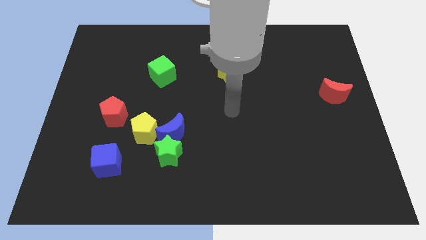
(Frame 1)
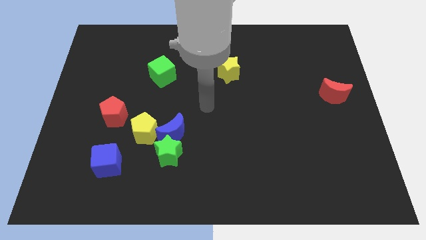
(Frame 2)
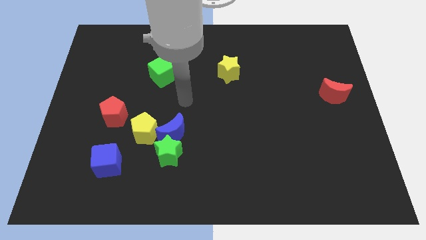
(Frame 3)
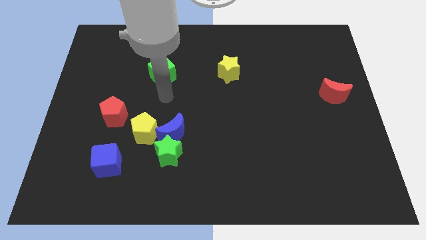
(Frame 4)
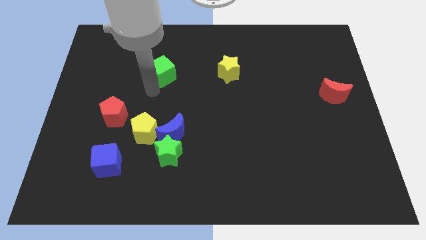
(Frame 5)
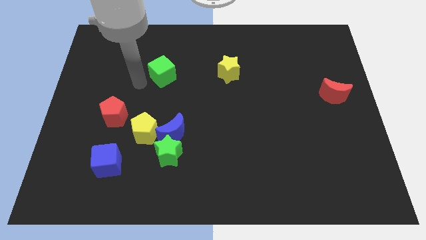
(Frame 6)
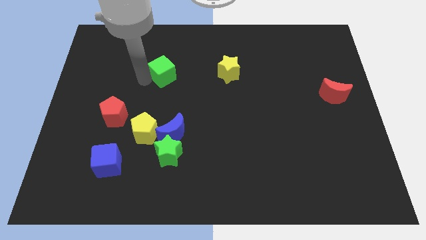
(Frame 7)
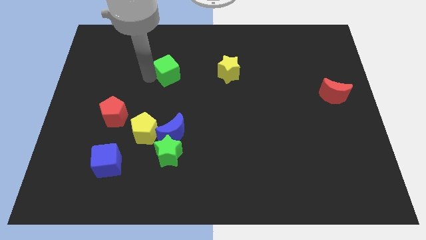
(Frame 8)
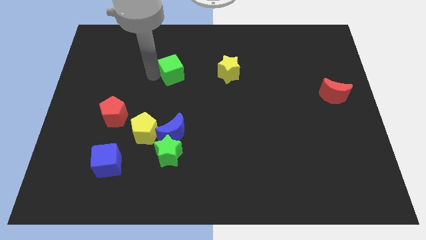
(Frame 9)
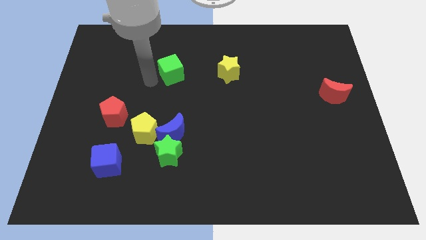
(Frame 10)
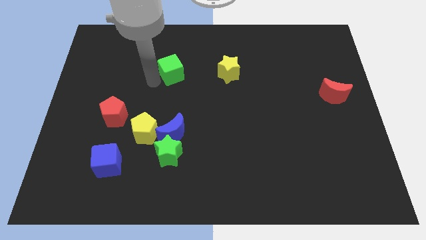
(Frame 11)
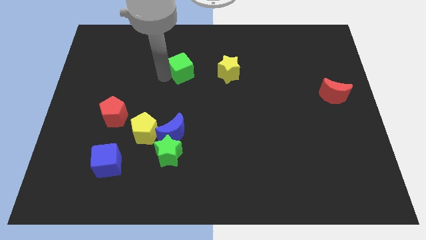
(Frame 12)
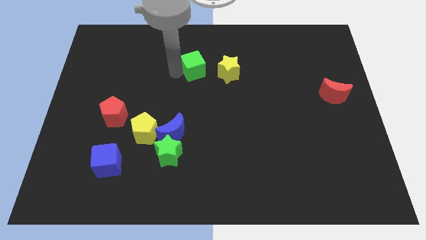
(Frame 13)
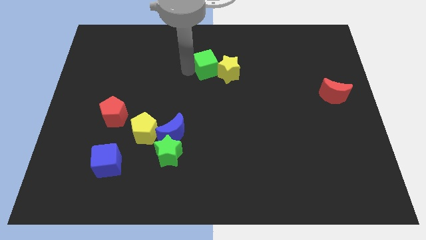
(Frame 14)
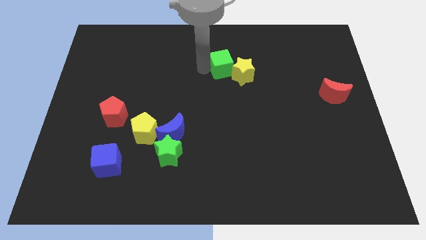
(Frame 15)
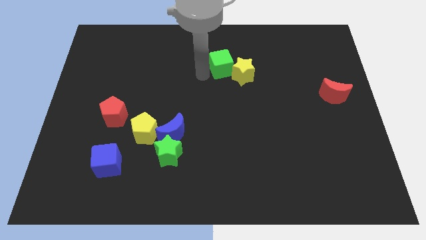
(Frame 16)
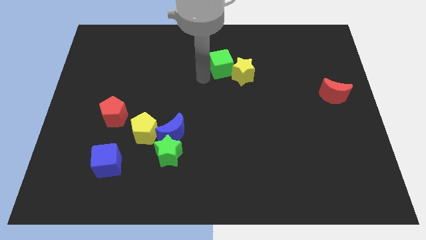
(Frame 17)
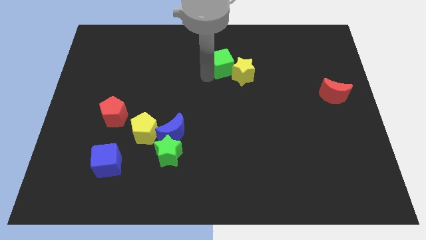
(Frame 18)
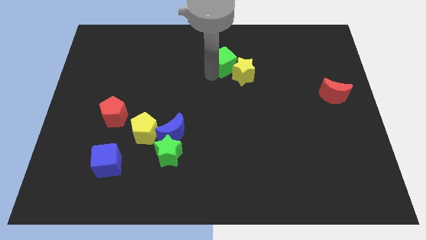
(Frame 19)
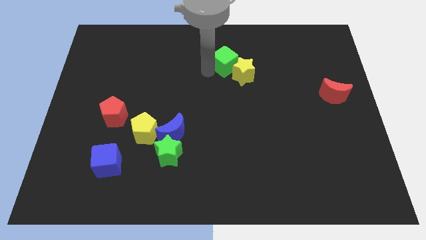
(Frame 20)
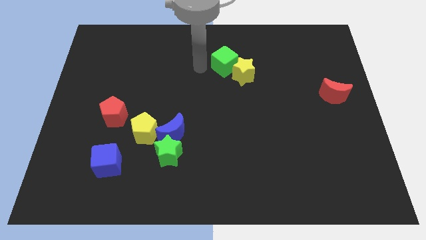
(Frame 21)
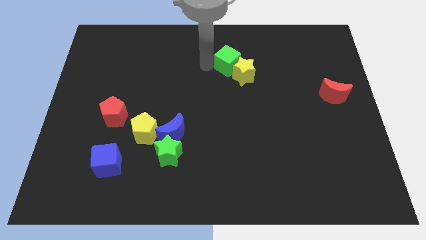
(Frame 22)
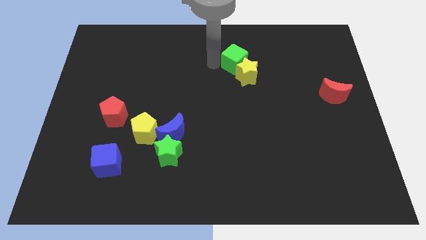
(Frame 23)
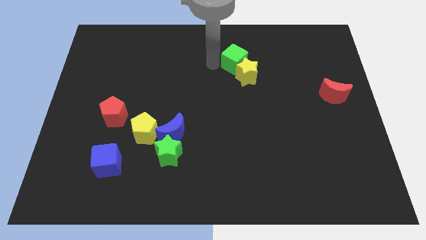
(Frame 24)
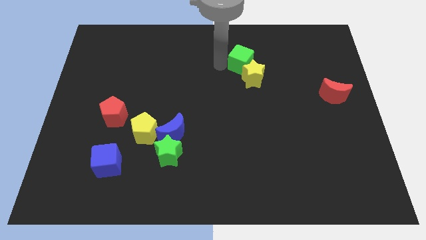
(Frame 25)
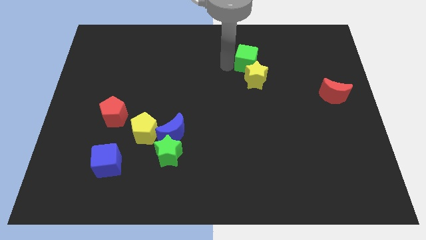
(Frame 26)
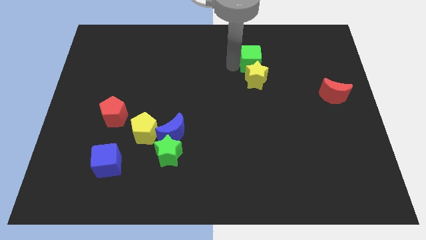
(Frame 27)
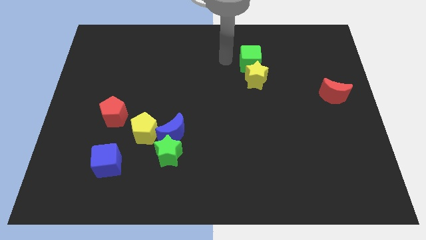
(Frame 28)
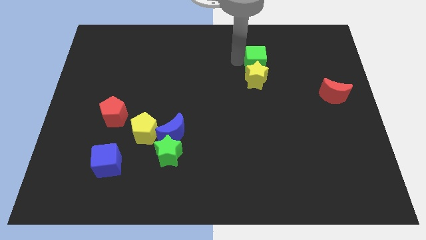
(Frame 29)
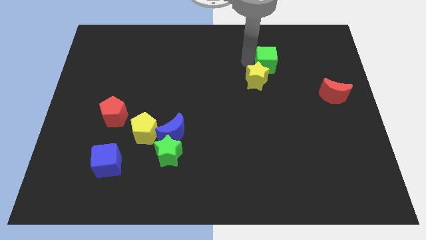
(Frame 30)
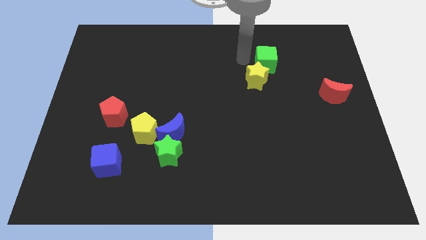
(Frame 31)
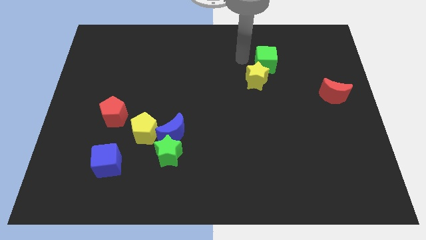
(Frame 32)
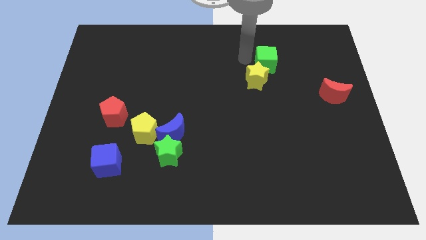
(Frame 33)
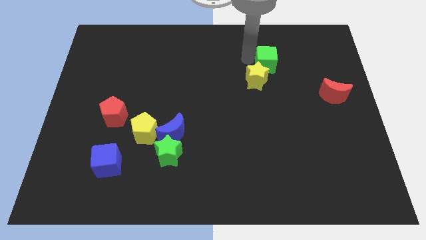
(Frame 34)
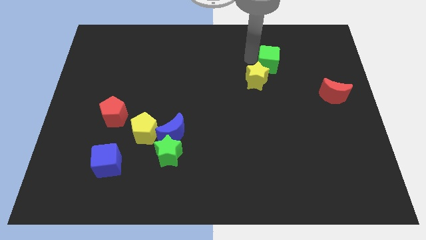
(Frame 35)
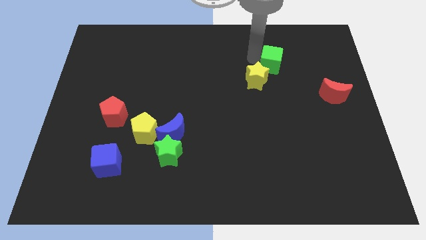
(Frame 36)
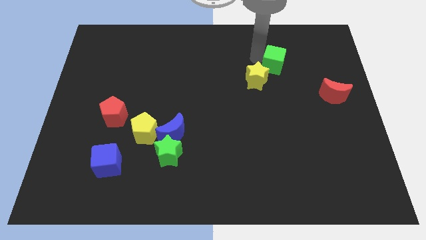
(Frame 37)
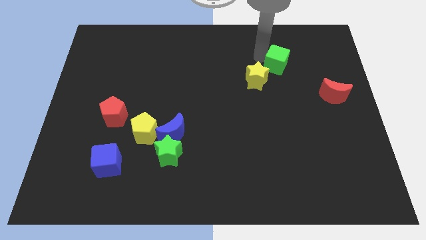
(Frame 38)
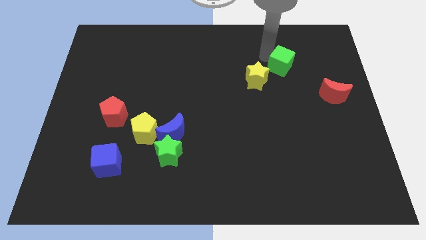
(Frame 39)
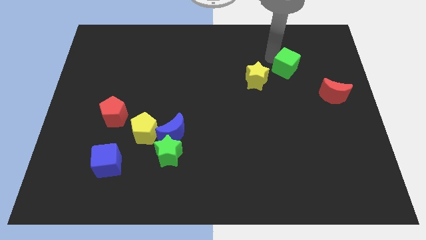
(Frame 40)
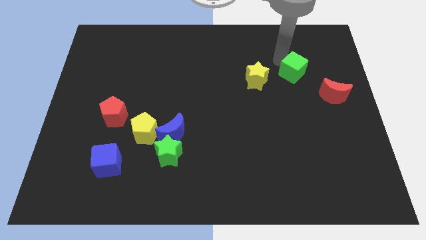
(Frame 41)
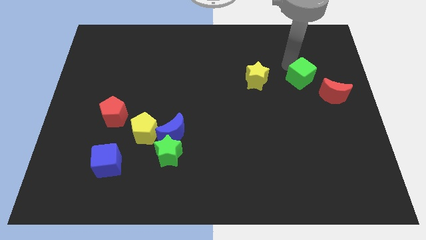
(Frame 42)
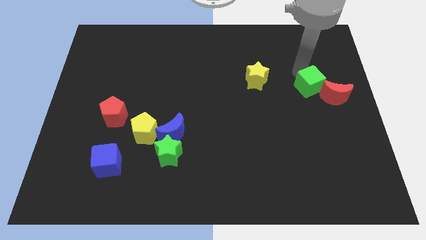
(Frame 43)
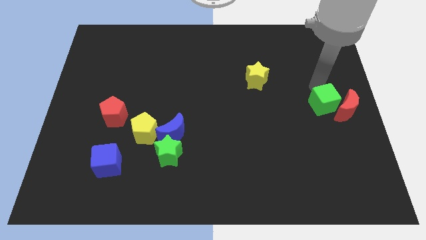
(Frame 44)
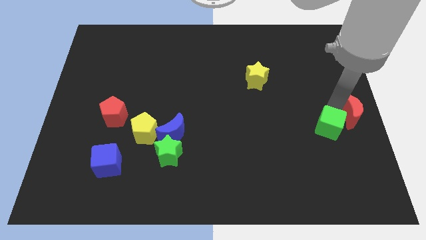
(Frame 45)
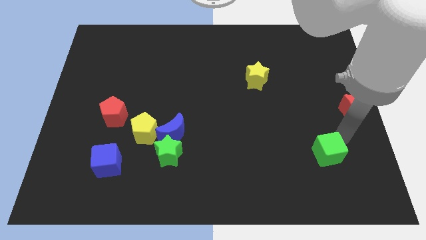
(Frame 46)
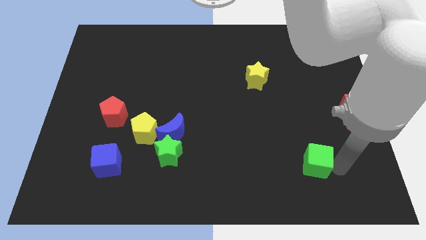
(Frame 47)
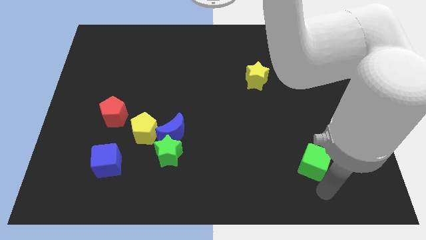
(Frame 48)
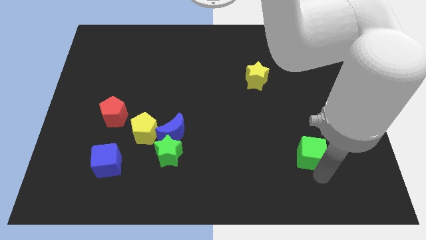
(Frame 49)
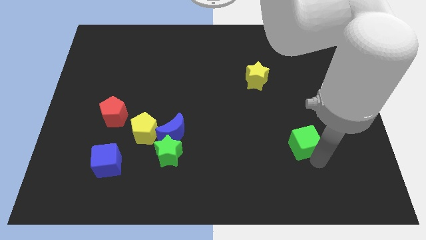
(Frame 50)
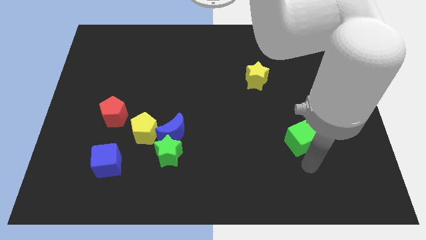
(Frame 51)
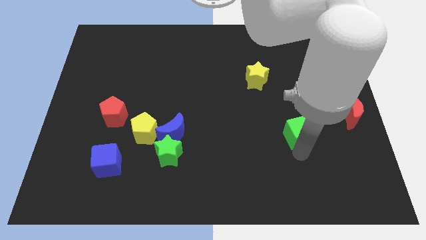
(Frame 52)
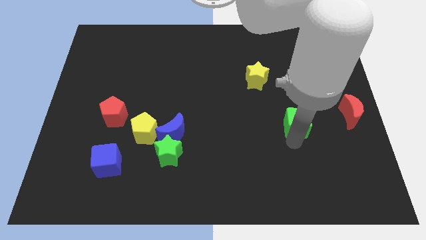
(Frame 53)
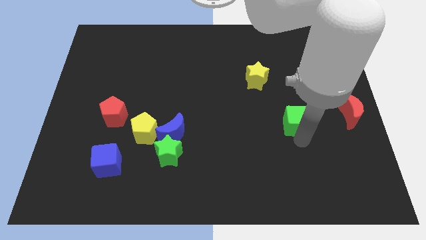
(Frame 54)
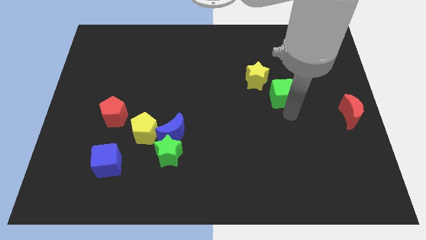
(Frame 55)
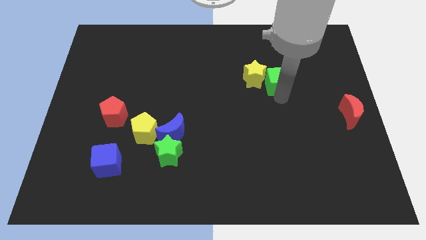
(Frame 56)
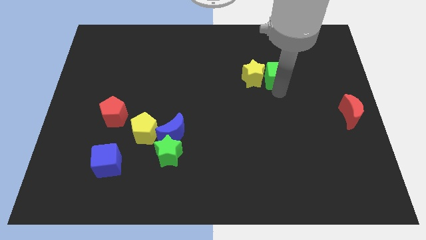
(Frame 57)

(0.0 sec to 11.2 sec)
slide the green cube to the top right side of the yellow star

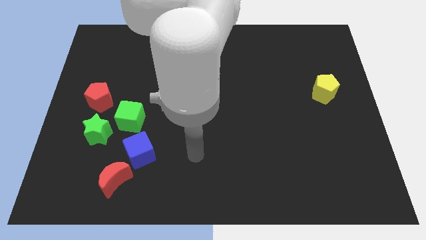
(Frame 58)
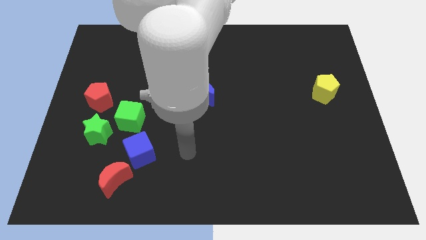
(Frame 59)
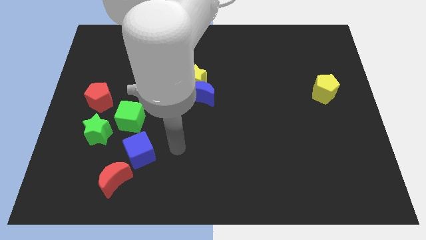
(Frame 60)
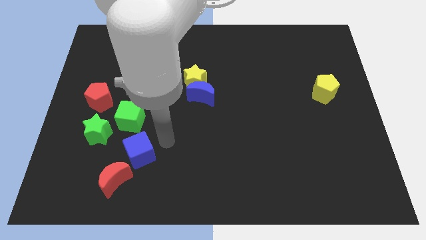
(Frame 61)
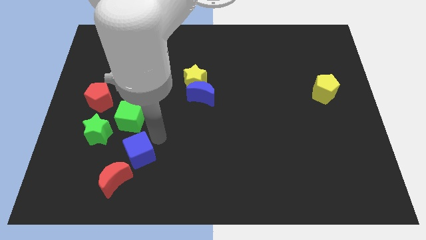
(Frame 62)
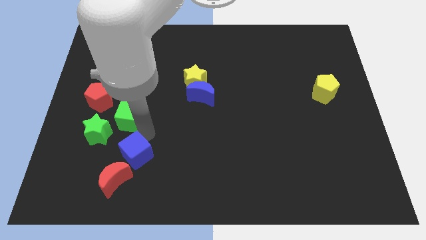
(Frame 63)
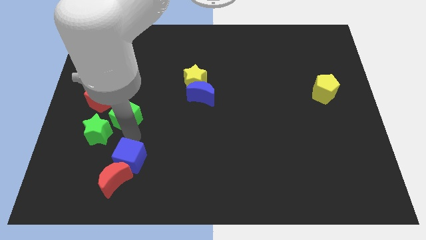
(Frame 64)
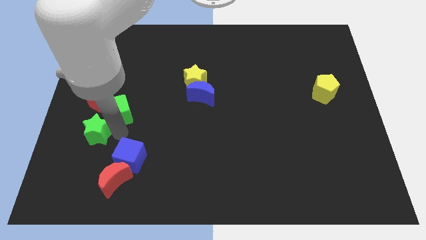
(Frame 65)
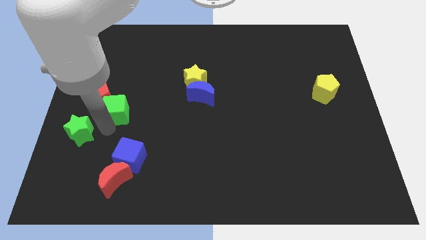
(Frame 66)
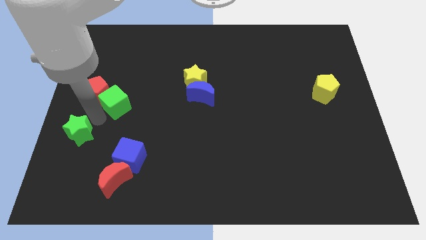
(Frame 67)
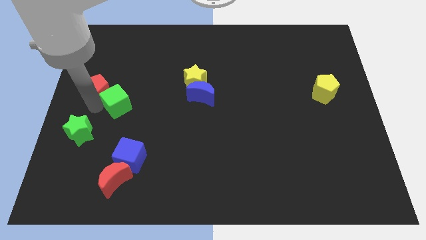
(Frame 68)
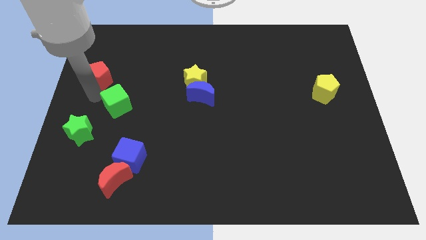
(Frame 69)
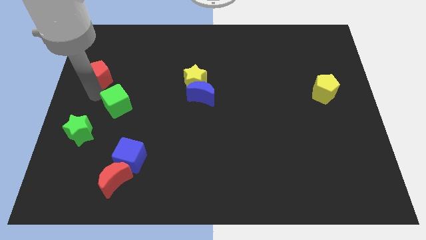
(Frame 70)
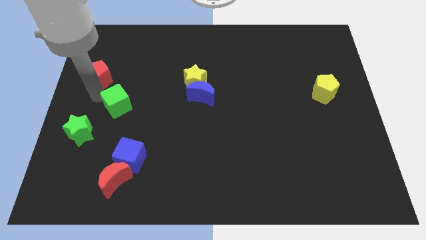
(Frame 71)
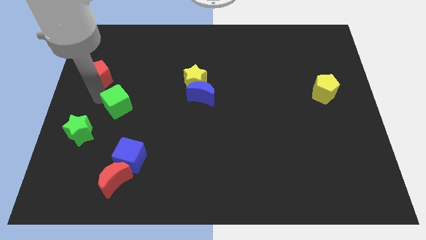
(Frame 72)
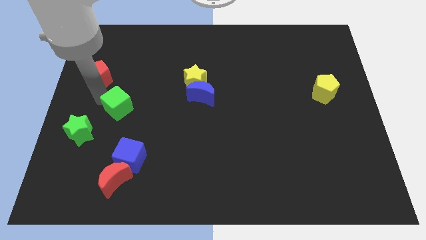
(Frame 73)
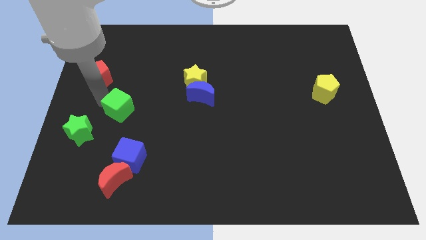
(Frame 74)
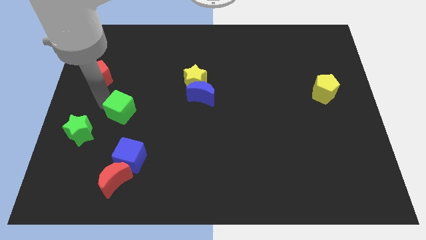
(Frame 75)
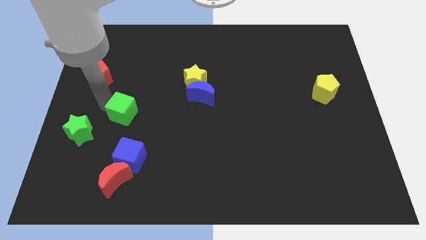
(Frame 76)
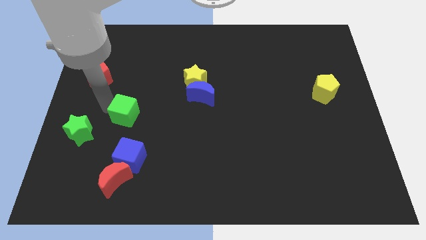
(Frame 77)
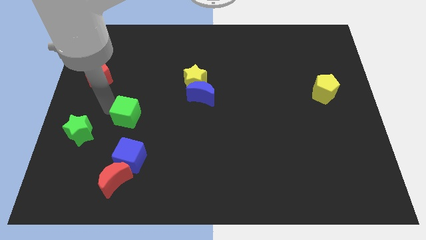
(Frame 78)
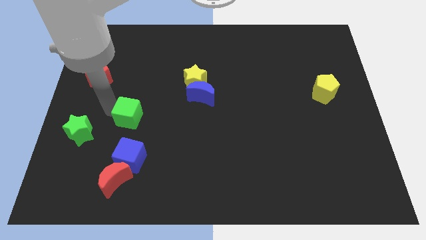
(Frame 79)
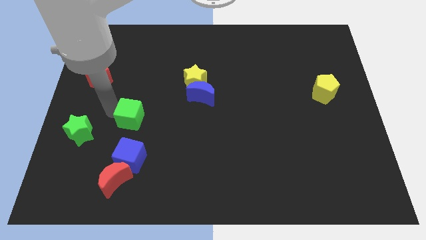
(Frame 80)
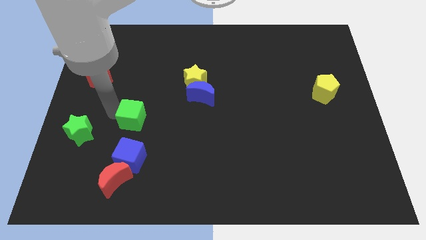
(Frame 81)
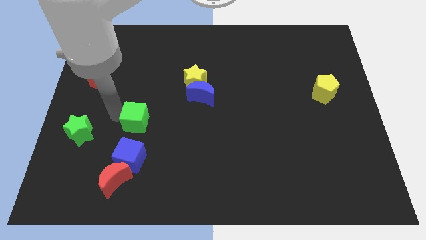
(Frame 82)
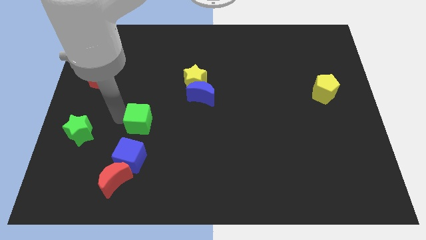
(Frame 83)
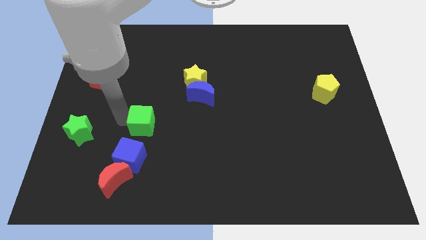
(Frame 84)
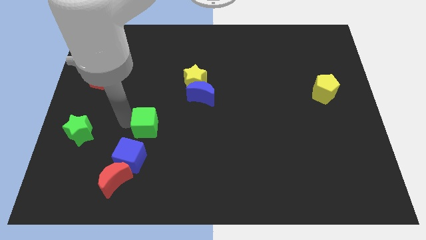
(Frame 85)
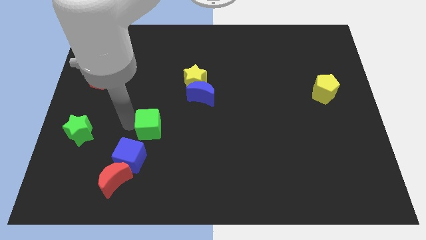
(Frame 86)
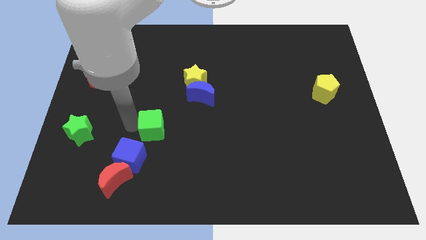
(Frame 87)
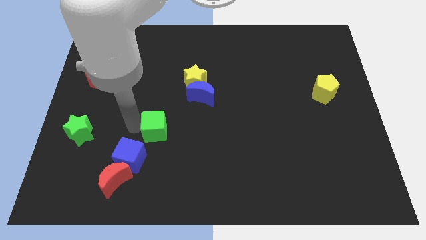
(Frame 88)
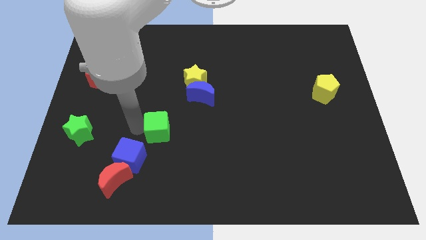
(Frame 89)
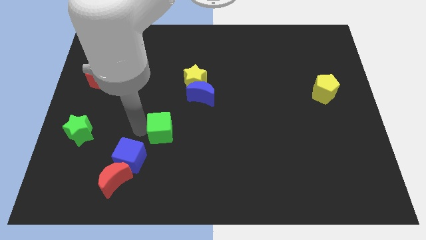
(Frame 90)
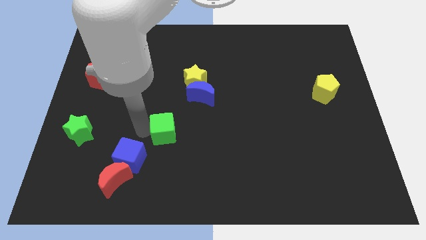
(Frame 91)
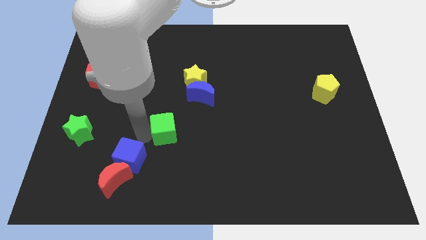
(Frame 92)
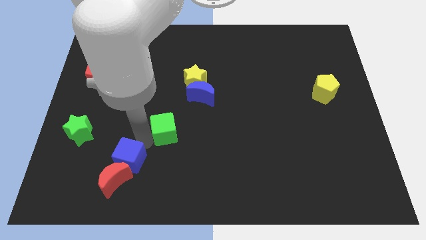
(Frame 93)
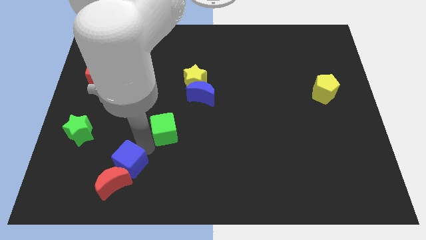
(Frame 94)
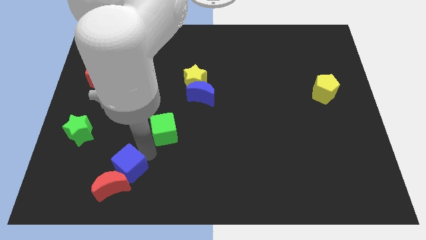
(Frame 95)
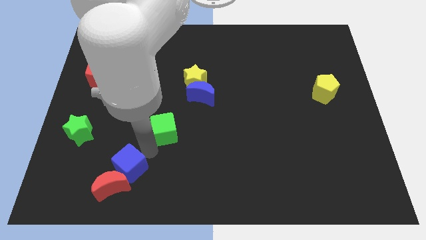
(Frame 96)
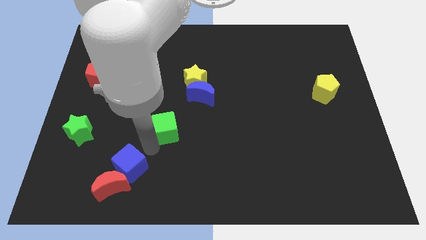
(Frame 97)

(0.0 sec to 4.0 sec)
move the green cube to the bottom left side of the blue moon
